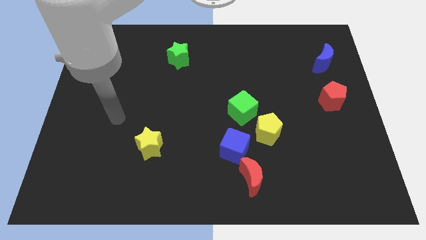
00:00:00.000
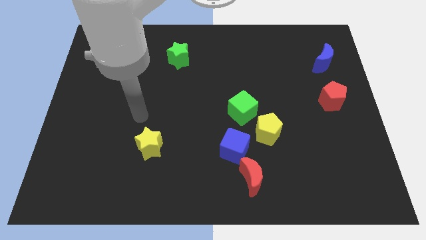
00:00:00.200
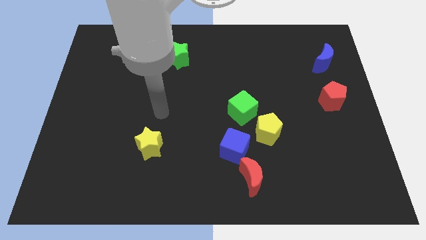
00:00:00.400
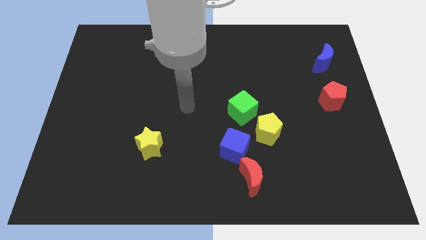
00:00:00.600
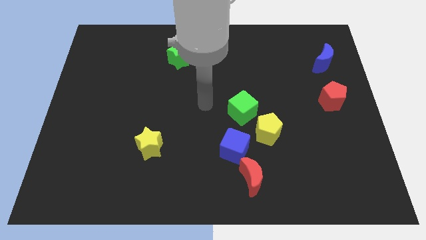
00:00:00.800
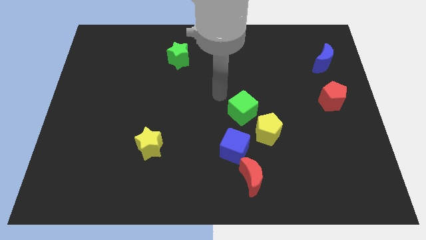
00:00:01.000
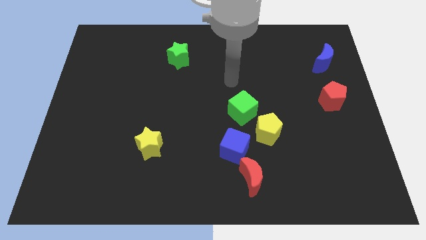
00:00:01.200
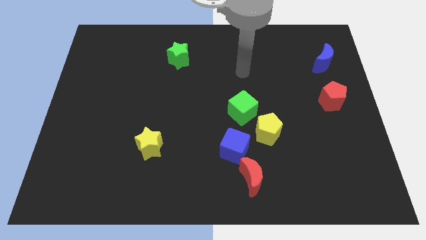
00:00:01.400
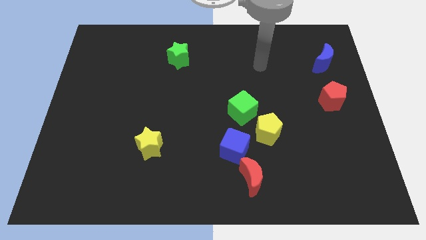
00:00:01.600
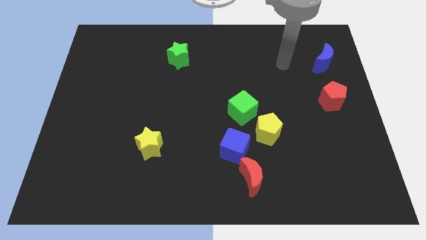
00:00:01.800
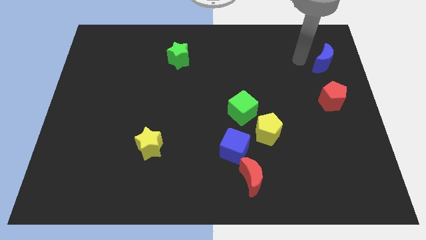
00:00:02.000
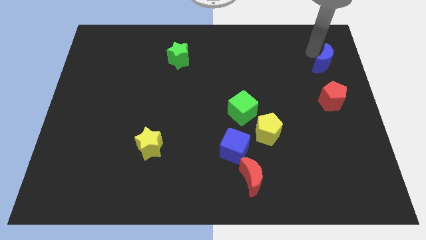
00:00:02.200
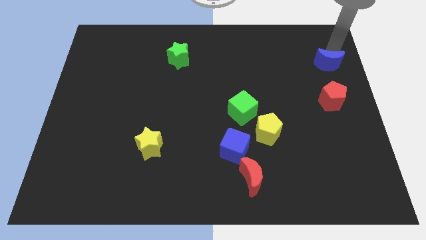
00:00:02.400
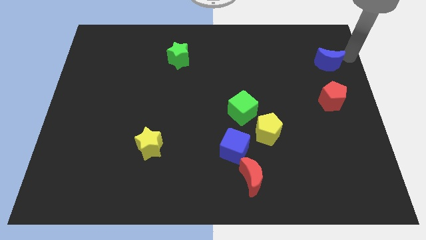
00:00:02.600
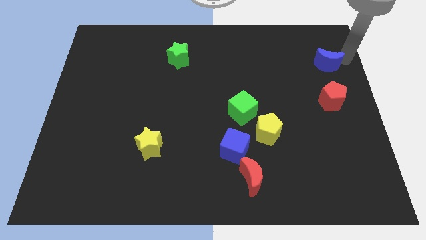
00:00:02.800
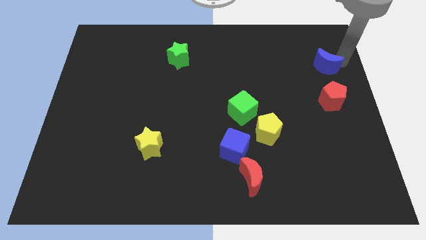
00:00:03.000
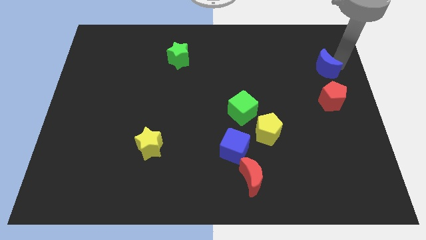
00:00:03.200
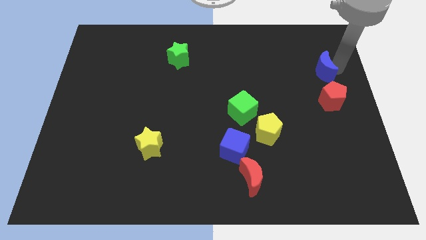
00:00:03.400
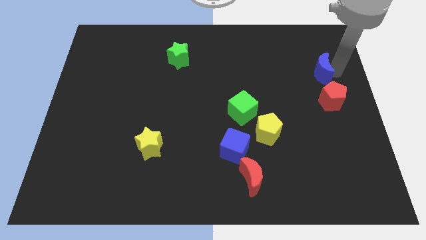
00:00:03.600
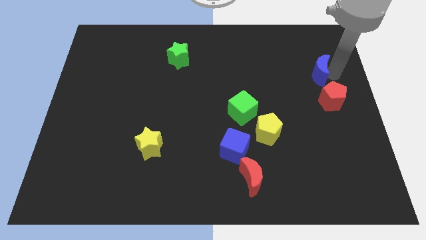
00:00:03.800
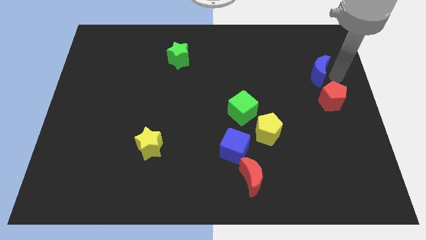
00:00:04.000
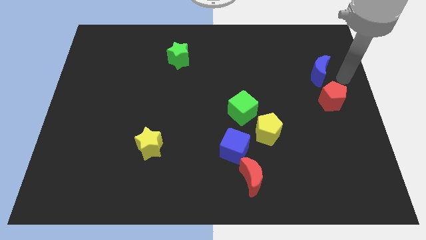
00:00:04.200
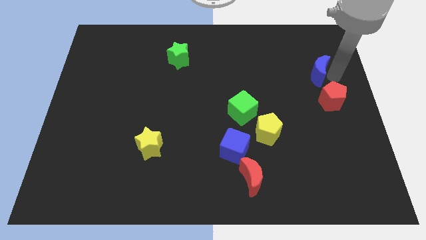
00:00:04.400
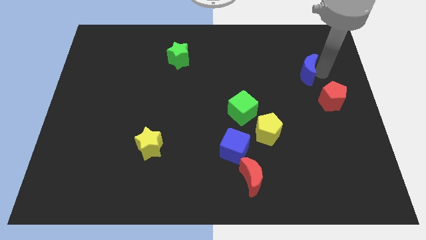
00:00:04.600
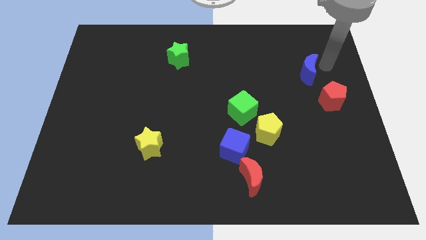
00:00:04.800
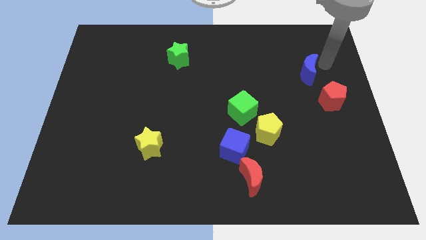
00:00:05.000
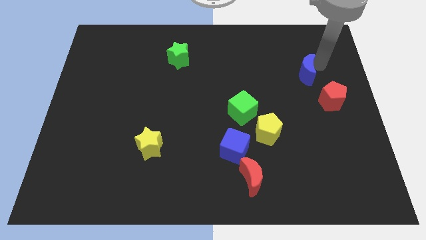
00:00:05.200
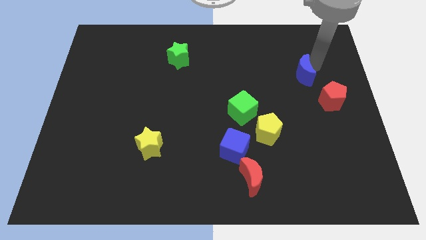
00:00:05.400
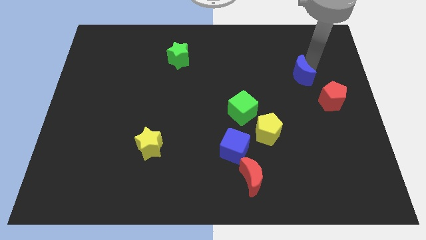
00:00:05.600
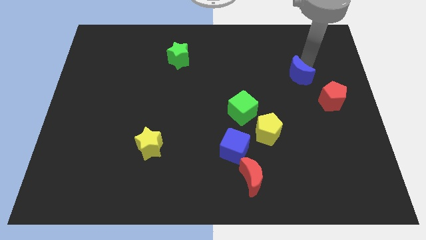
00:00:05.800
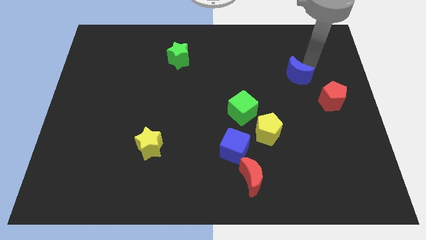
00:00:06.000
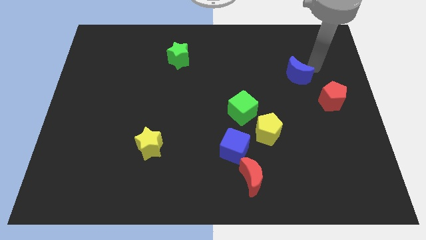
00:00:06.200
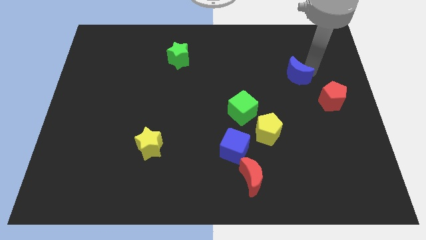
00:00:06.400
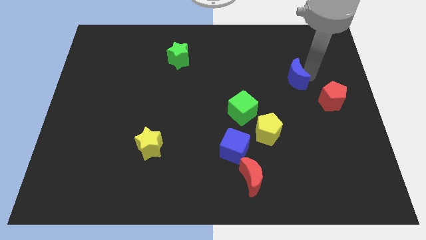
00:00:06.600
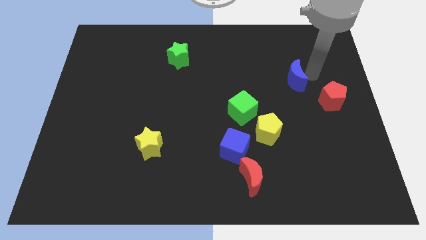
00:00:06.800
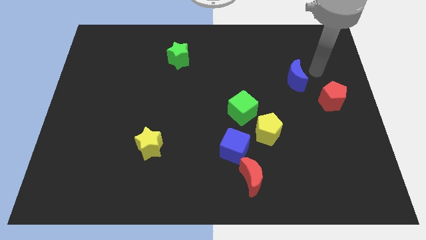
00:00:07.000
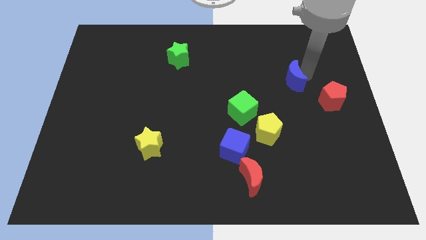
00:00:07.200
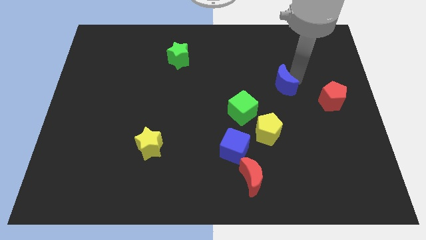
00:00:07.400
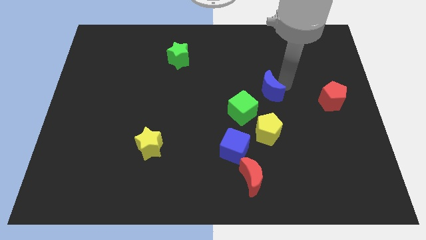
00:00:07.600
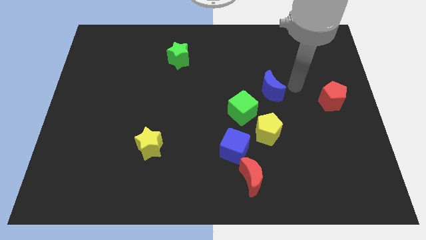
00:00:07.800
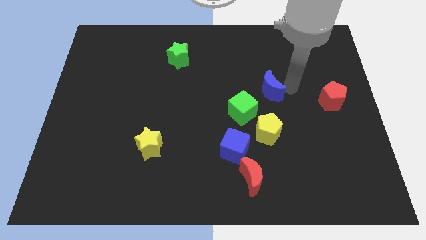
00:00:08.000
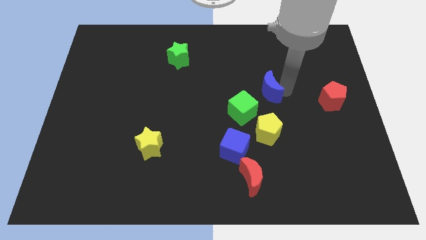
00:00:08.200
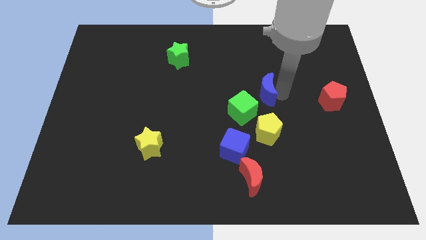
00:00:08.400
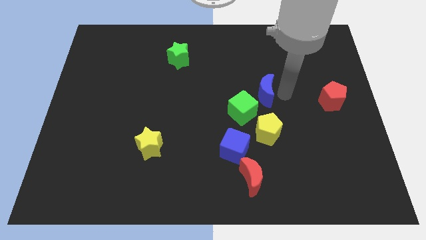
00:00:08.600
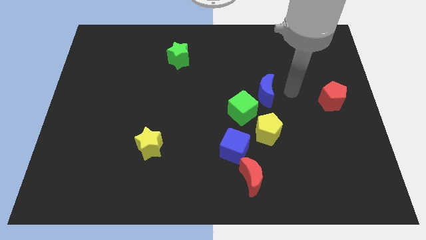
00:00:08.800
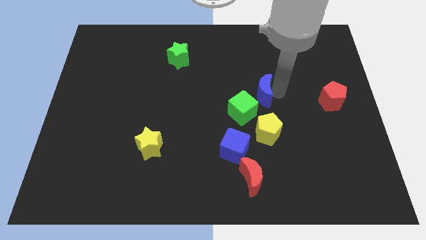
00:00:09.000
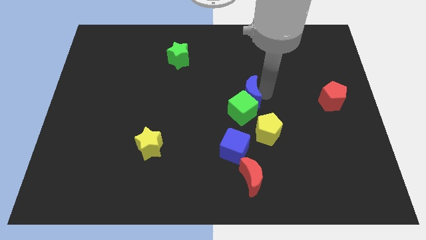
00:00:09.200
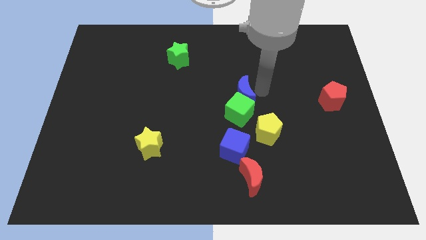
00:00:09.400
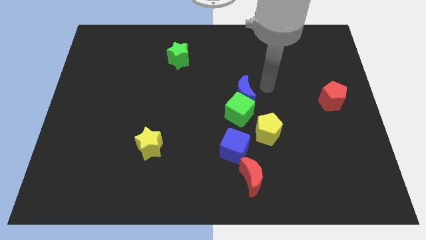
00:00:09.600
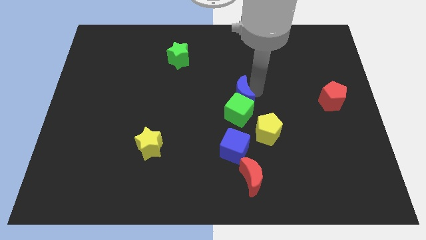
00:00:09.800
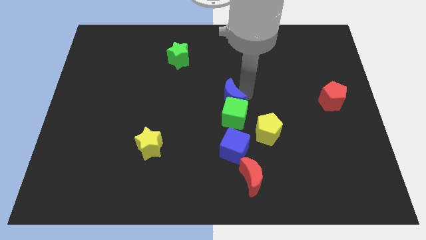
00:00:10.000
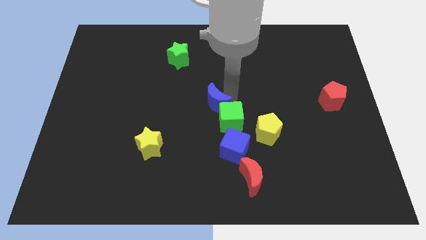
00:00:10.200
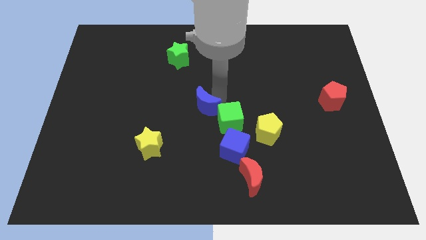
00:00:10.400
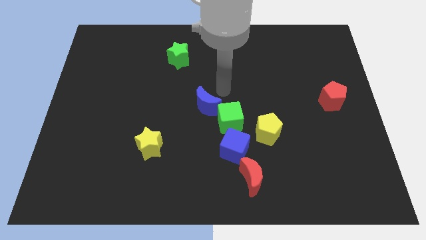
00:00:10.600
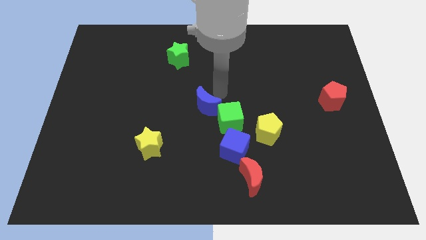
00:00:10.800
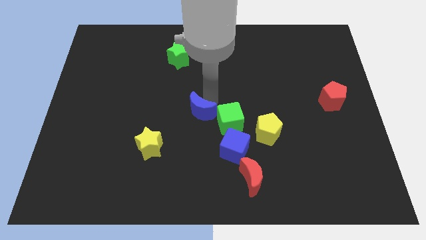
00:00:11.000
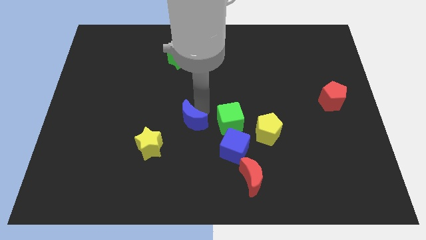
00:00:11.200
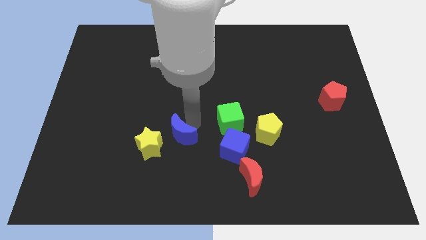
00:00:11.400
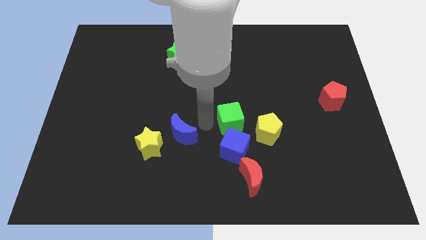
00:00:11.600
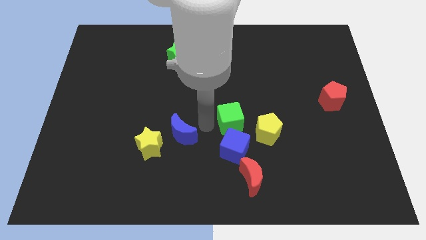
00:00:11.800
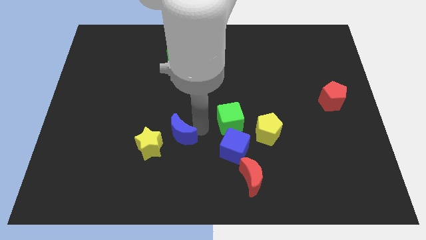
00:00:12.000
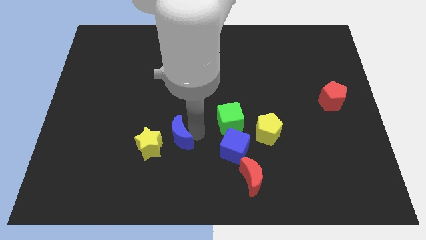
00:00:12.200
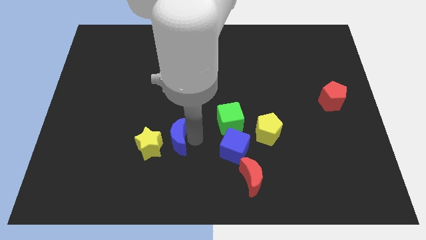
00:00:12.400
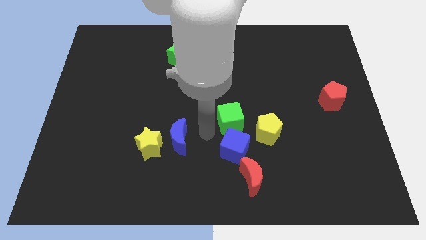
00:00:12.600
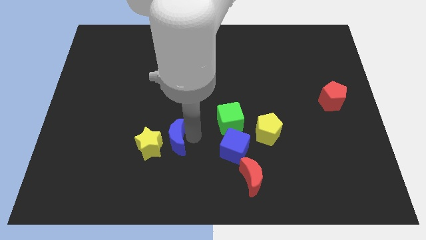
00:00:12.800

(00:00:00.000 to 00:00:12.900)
move the blue moon to the yellow star
